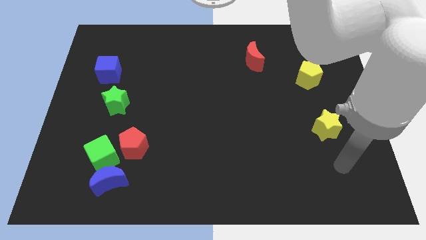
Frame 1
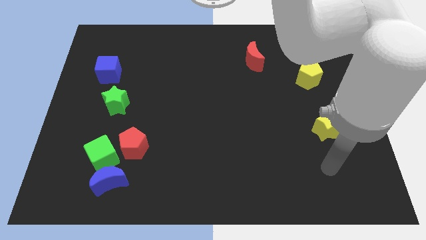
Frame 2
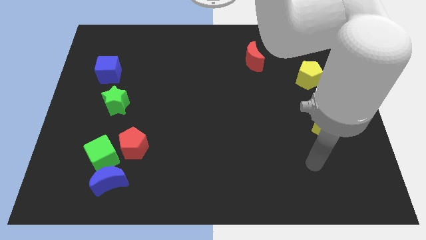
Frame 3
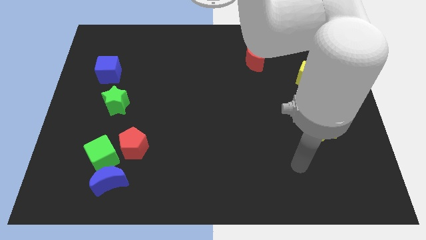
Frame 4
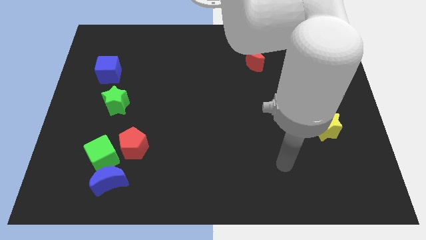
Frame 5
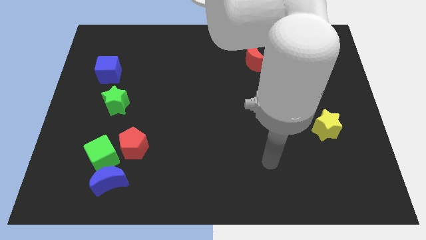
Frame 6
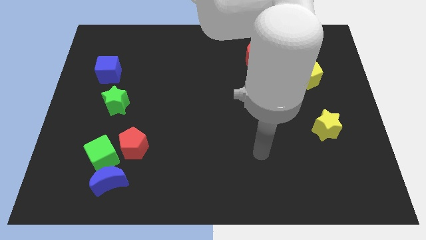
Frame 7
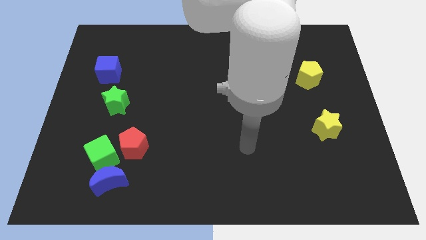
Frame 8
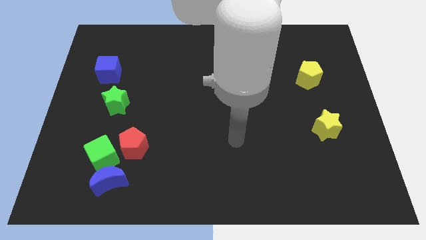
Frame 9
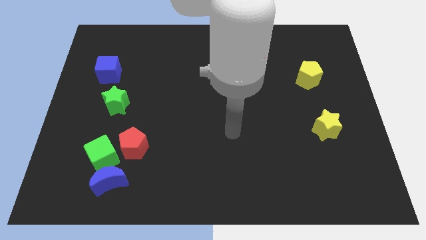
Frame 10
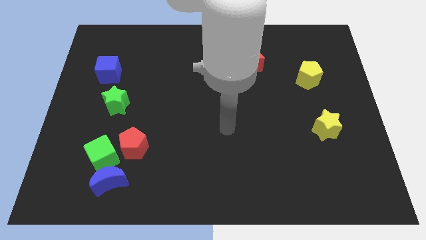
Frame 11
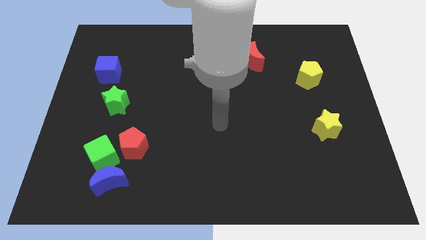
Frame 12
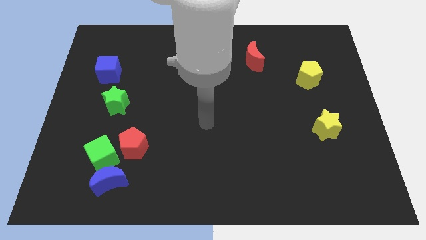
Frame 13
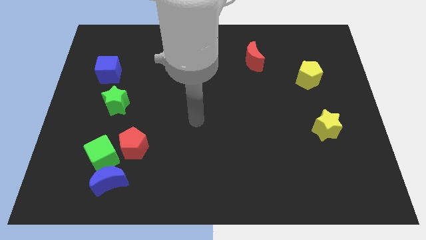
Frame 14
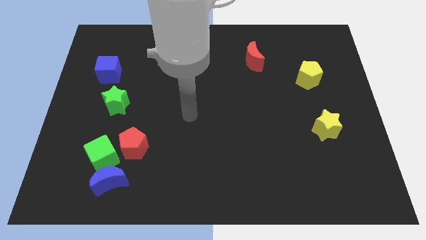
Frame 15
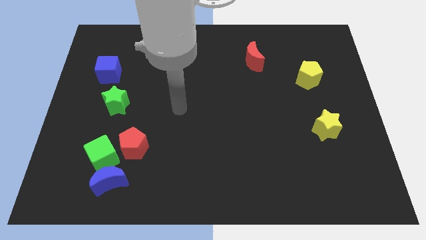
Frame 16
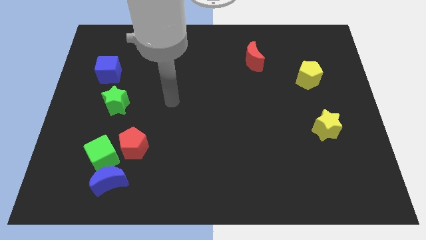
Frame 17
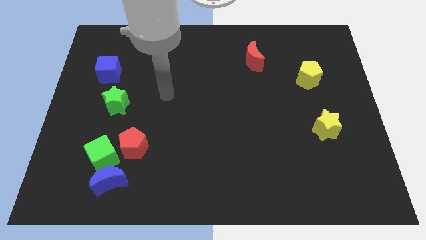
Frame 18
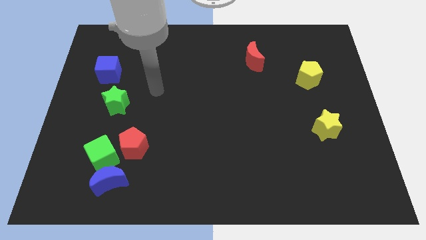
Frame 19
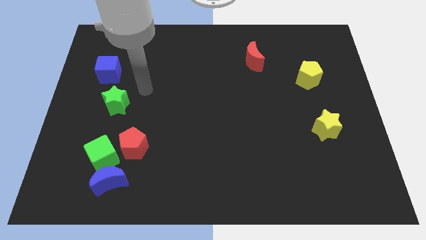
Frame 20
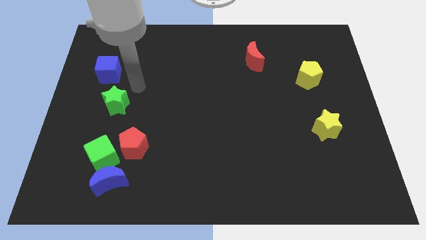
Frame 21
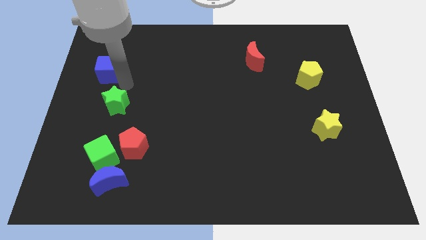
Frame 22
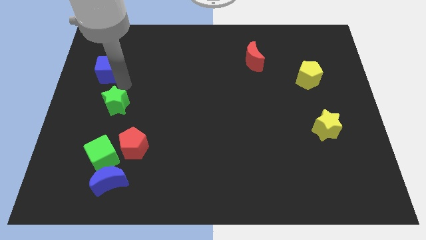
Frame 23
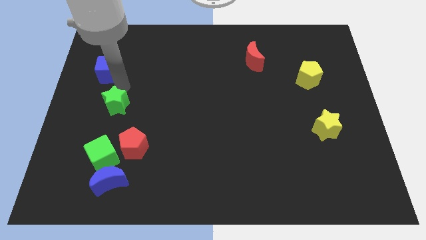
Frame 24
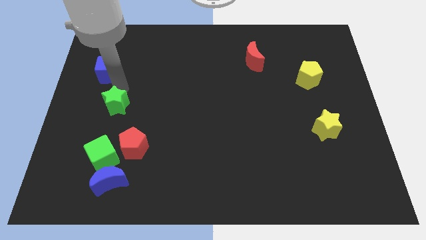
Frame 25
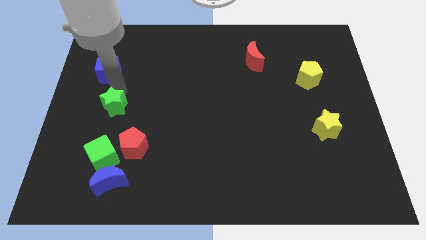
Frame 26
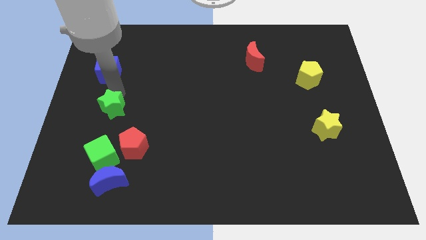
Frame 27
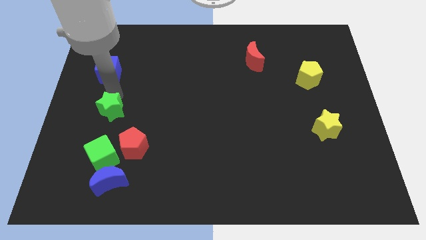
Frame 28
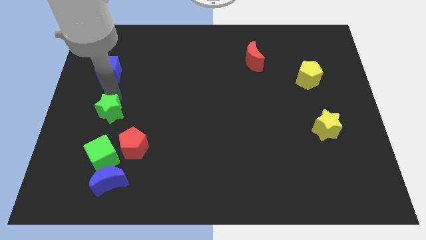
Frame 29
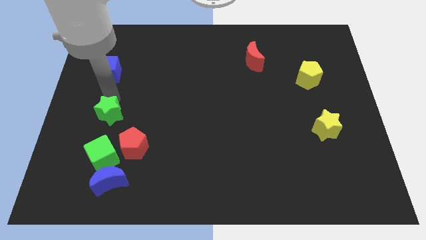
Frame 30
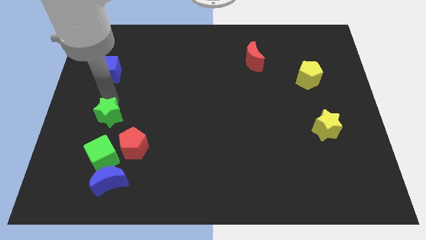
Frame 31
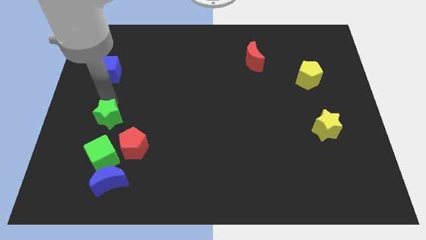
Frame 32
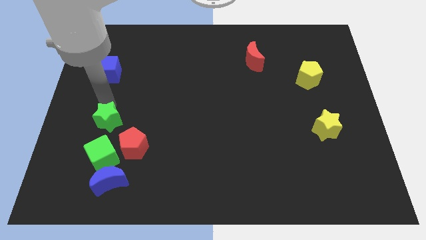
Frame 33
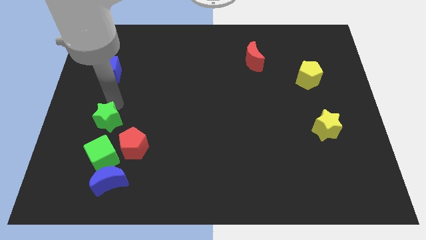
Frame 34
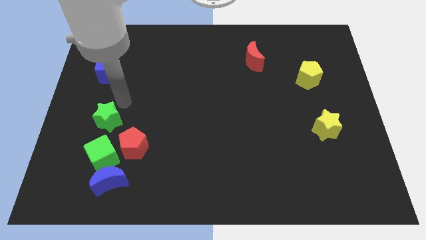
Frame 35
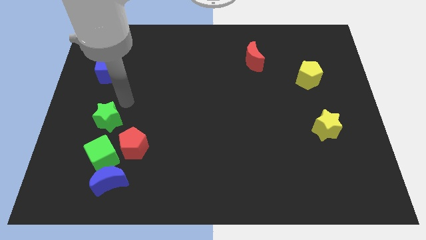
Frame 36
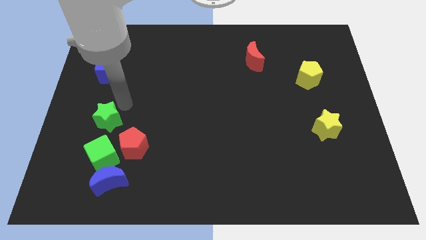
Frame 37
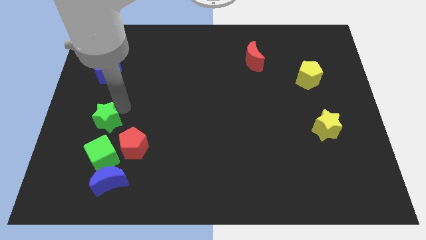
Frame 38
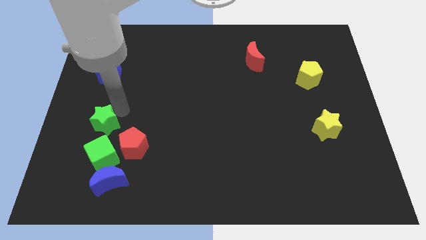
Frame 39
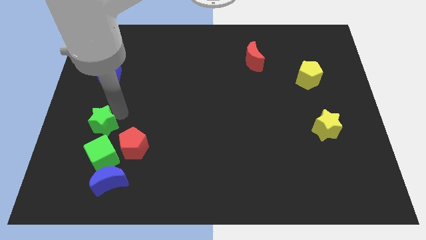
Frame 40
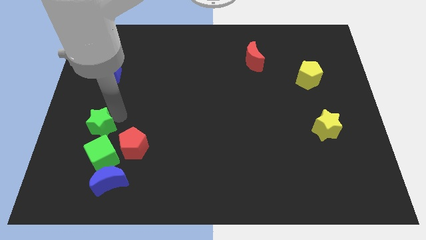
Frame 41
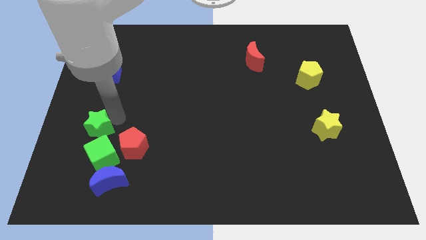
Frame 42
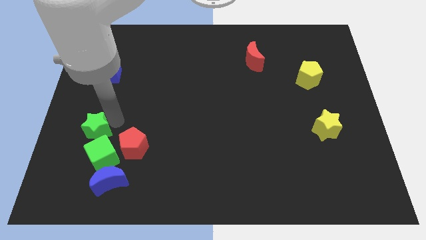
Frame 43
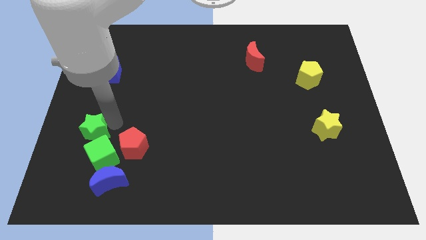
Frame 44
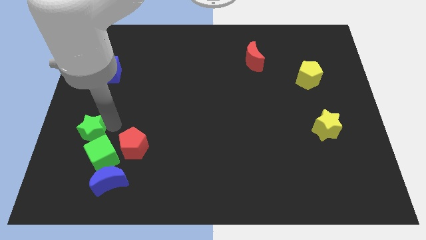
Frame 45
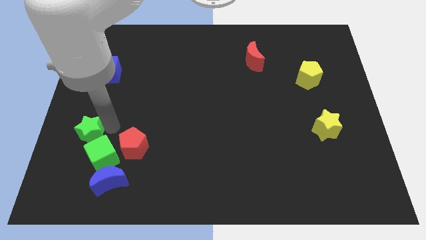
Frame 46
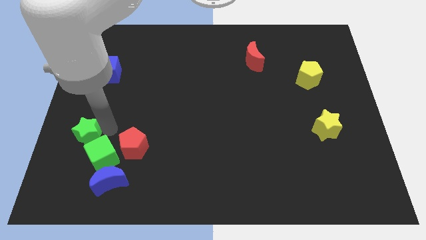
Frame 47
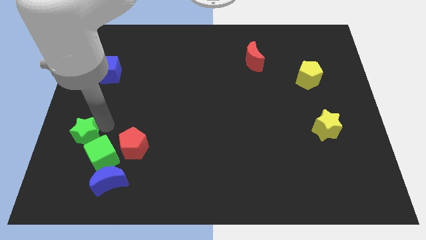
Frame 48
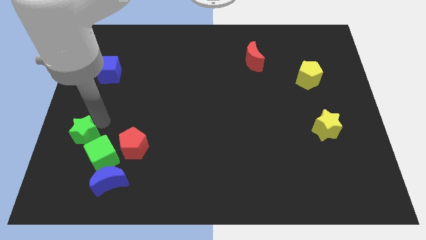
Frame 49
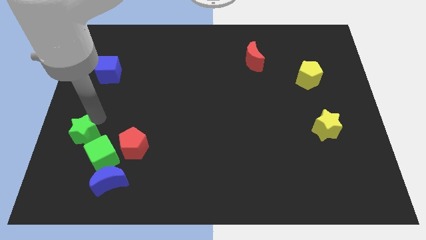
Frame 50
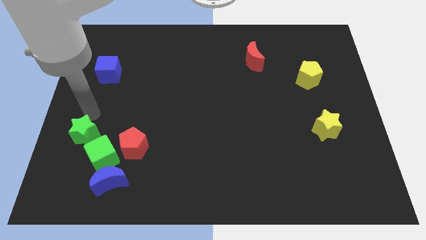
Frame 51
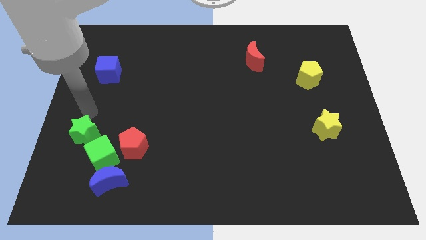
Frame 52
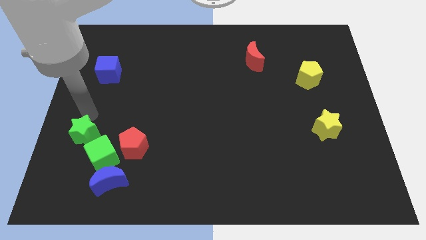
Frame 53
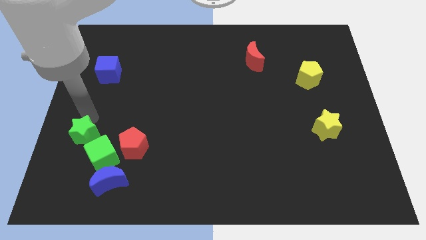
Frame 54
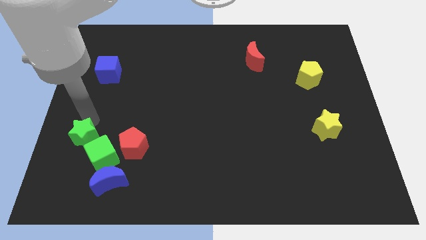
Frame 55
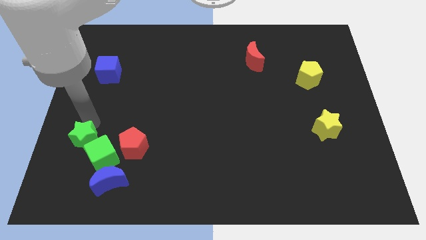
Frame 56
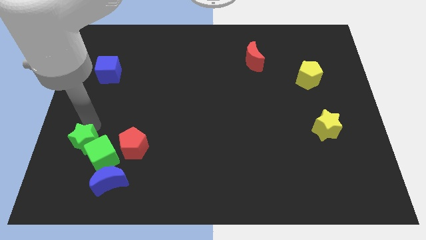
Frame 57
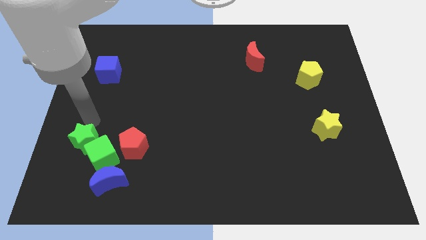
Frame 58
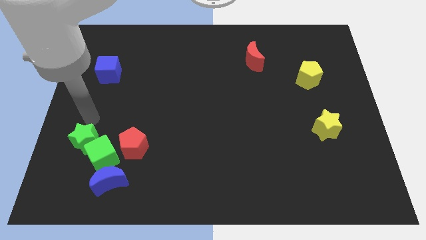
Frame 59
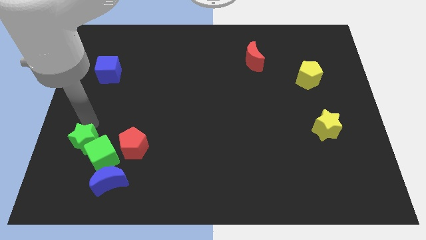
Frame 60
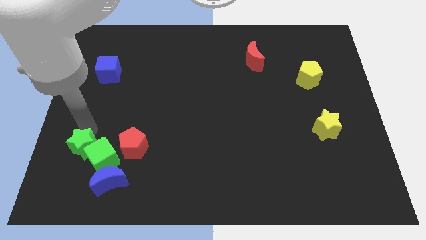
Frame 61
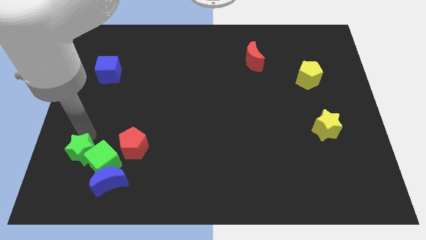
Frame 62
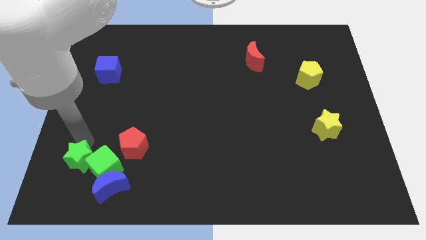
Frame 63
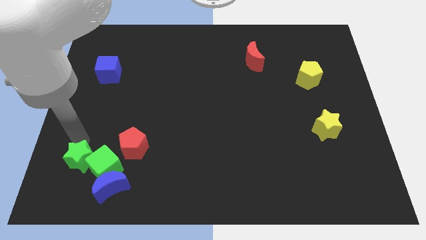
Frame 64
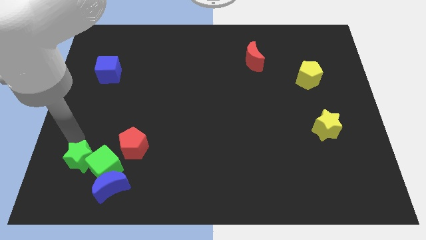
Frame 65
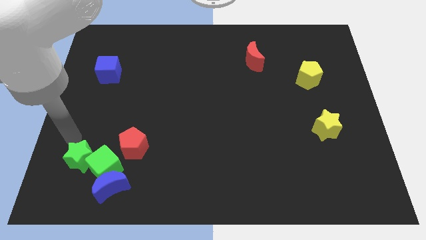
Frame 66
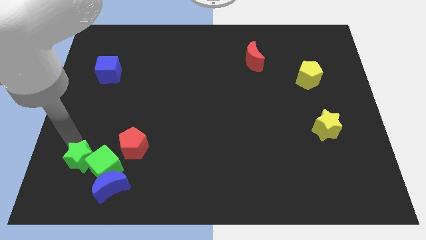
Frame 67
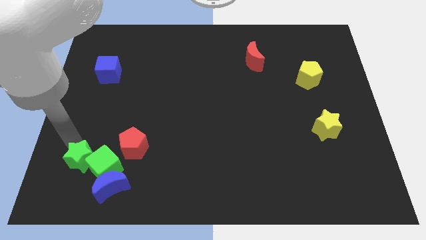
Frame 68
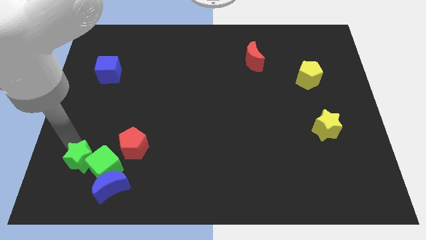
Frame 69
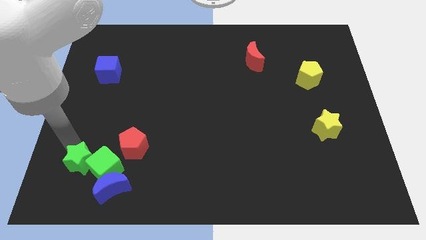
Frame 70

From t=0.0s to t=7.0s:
push the green star to the bottom left side of the red pentagon

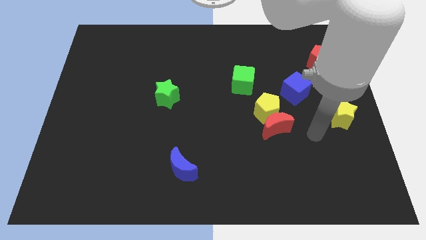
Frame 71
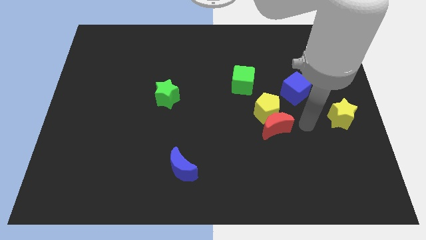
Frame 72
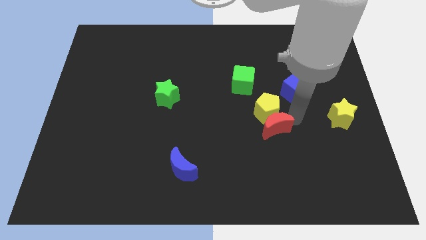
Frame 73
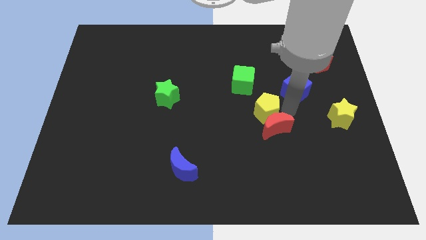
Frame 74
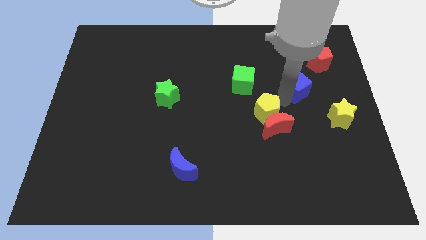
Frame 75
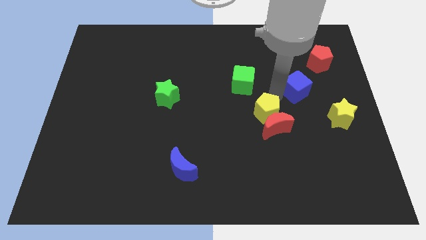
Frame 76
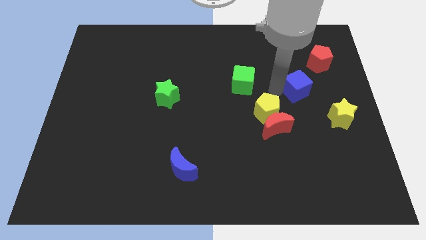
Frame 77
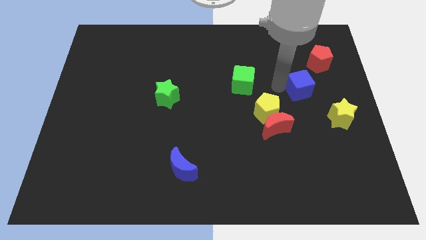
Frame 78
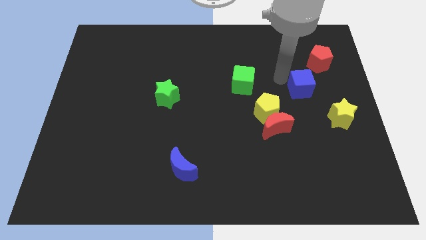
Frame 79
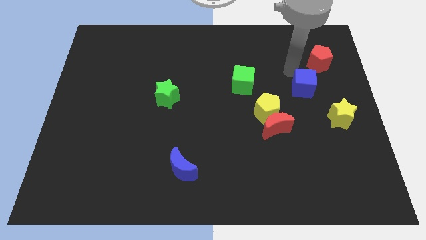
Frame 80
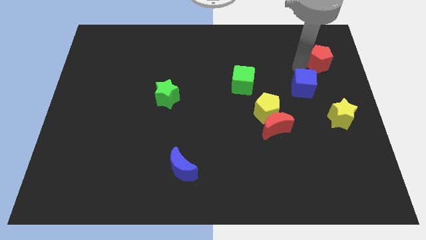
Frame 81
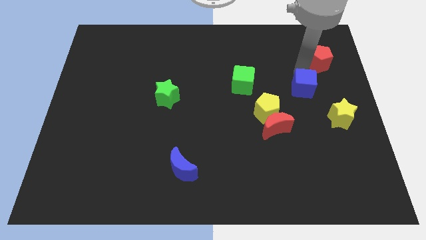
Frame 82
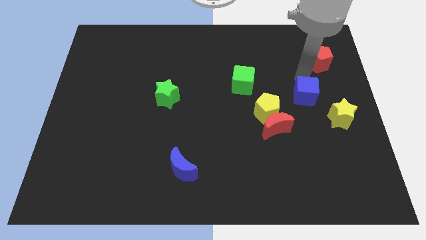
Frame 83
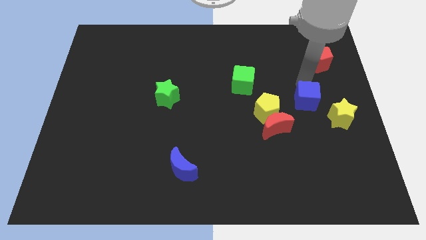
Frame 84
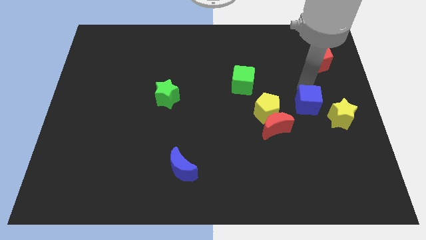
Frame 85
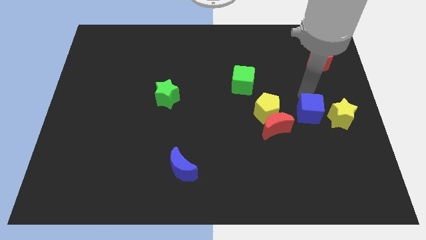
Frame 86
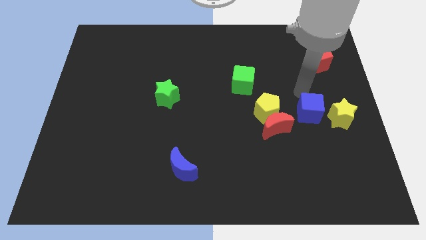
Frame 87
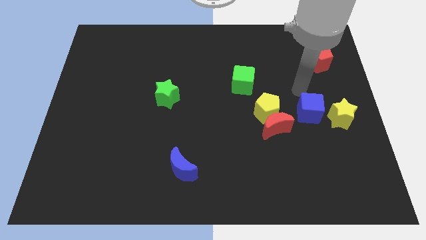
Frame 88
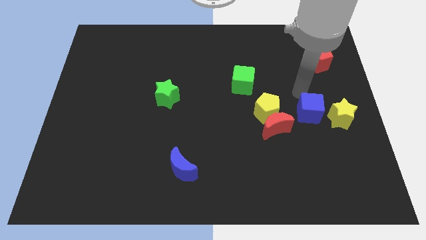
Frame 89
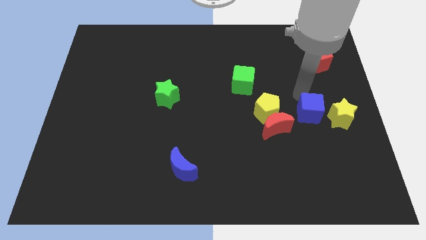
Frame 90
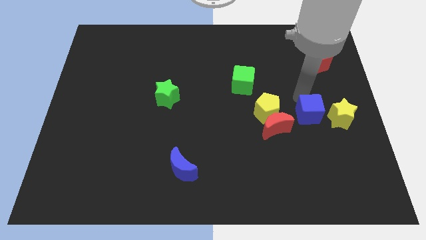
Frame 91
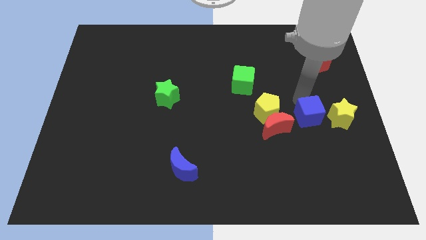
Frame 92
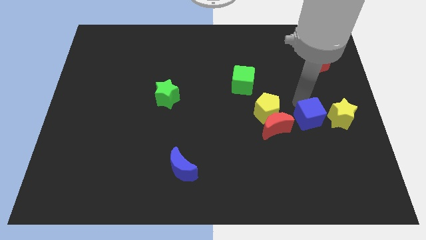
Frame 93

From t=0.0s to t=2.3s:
slide the blue cube diagonally down and to the left of the yellow star
